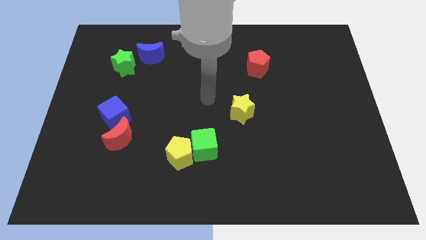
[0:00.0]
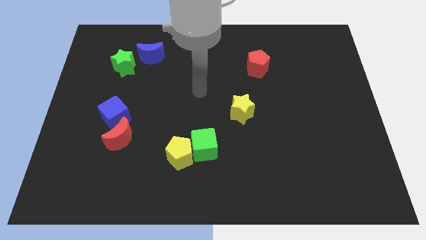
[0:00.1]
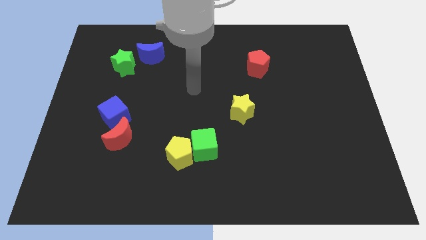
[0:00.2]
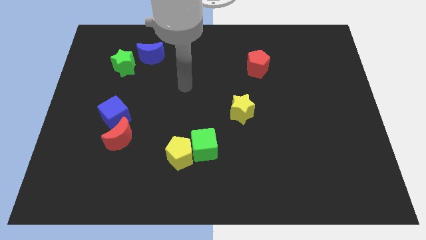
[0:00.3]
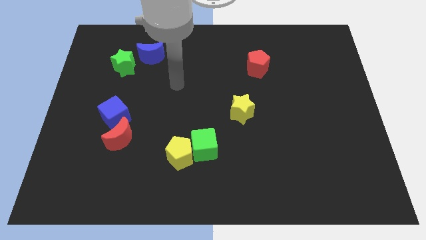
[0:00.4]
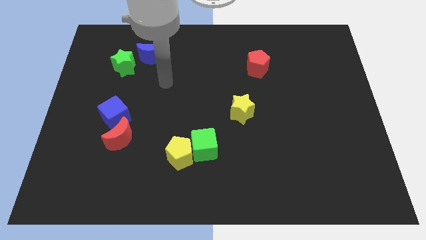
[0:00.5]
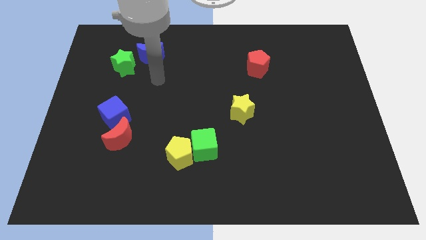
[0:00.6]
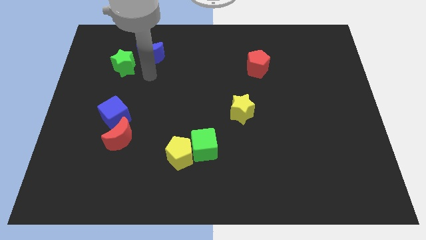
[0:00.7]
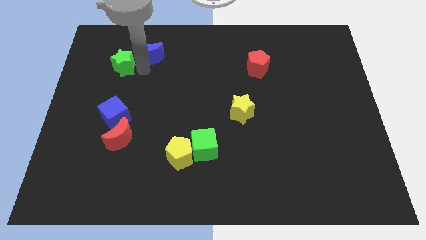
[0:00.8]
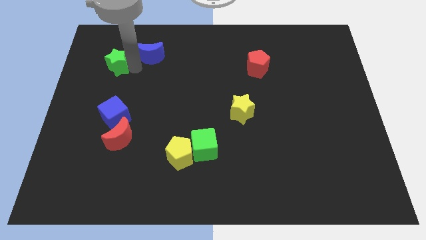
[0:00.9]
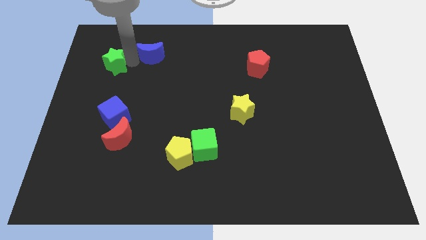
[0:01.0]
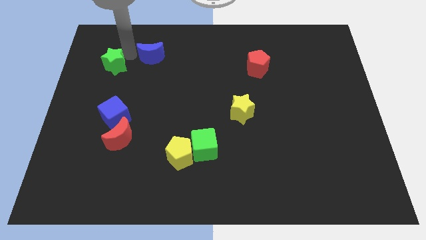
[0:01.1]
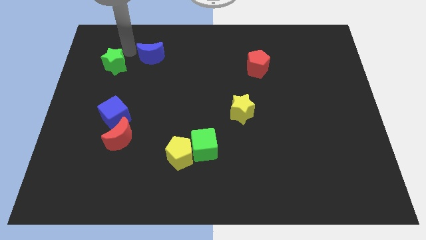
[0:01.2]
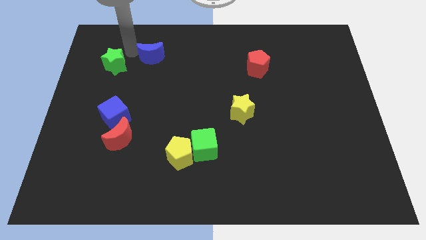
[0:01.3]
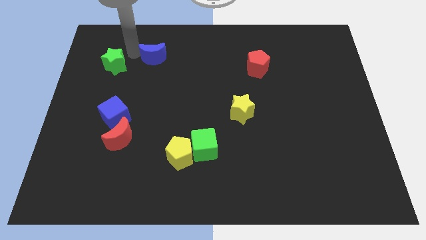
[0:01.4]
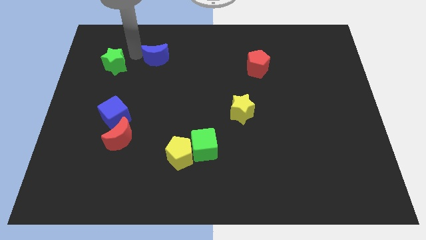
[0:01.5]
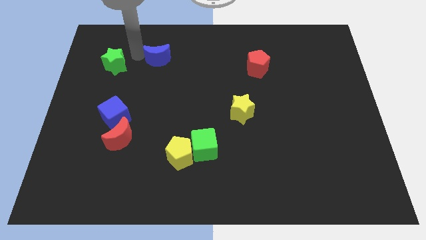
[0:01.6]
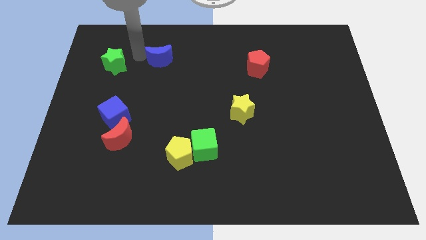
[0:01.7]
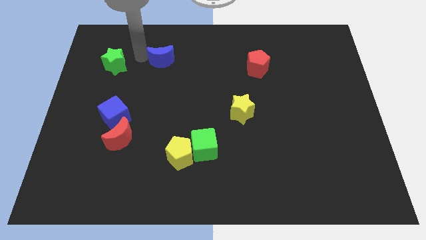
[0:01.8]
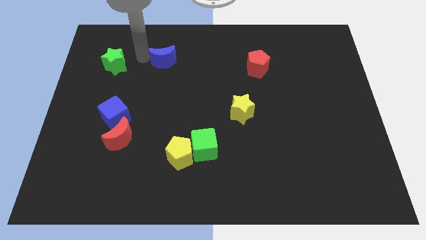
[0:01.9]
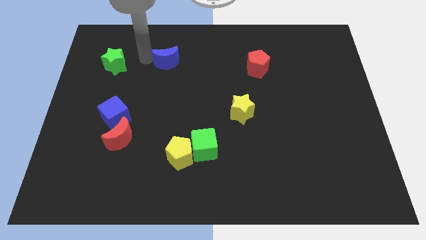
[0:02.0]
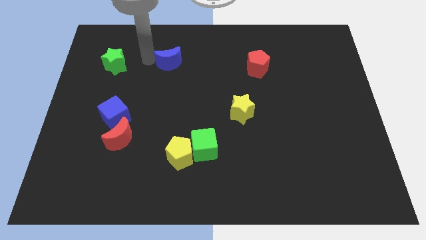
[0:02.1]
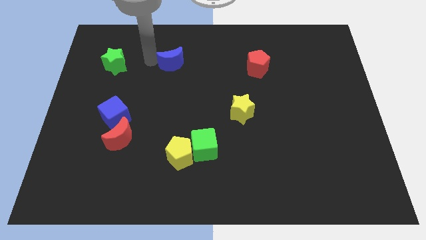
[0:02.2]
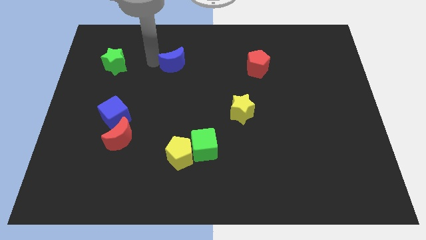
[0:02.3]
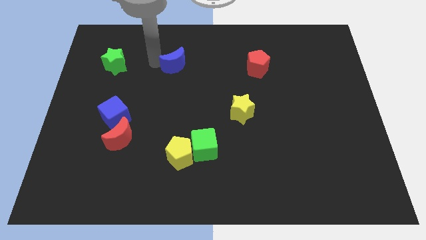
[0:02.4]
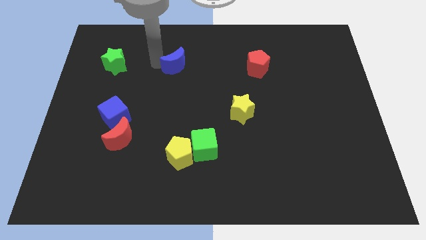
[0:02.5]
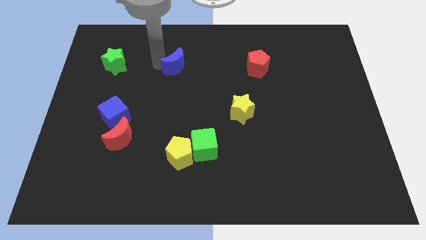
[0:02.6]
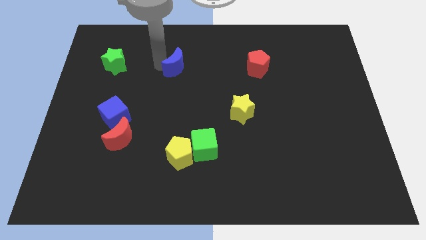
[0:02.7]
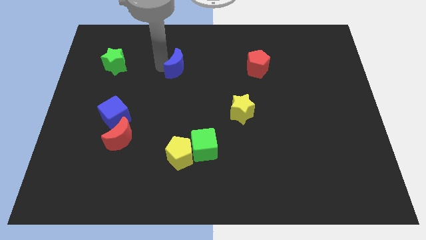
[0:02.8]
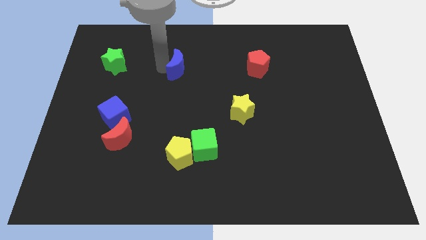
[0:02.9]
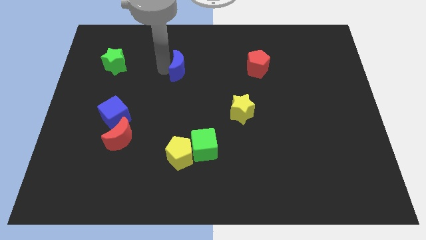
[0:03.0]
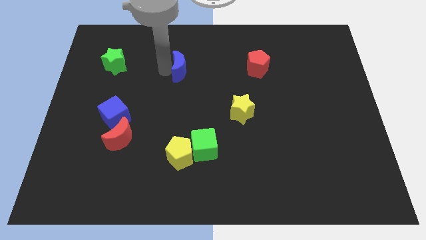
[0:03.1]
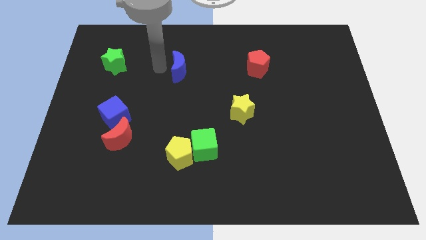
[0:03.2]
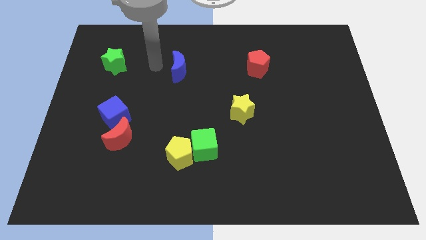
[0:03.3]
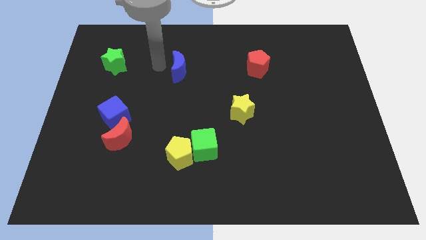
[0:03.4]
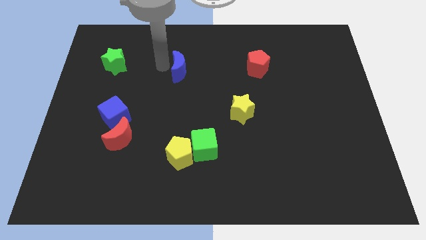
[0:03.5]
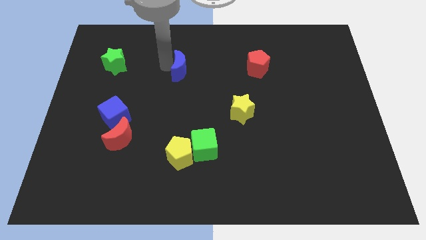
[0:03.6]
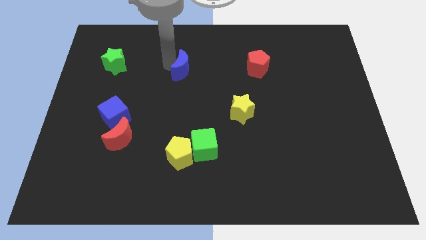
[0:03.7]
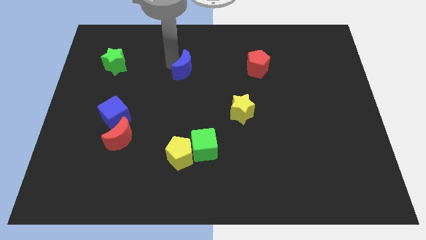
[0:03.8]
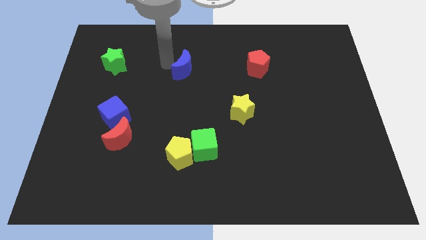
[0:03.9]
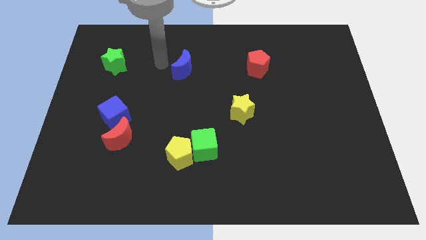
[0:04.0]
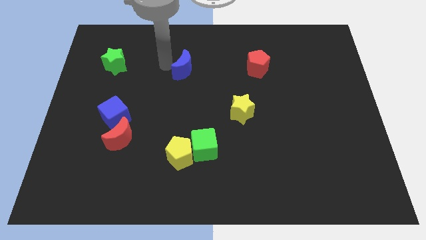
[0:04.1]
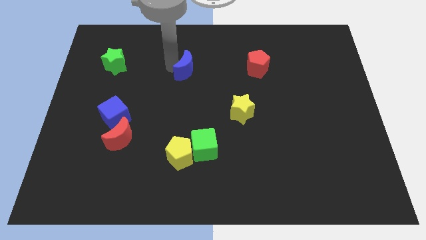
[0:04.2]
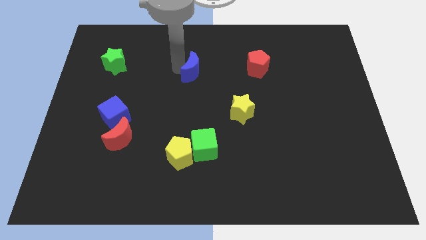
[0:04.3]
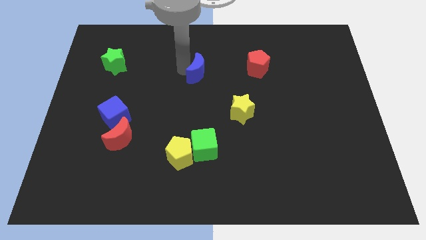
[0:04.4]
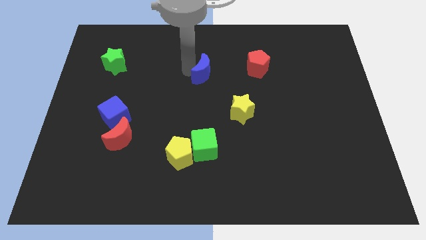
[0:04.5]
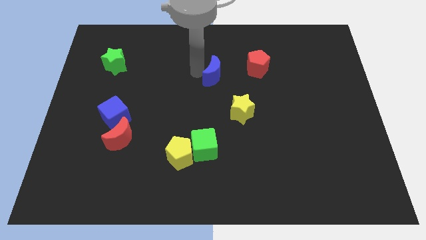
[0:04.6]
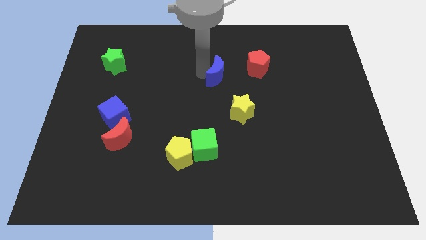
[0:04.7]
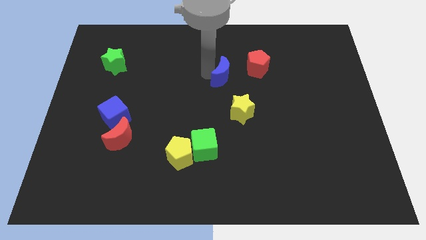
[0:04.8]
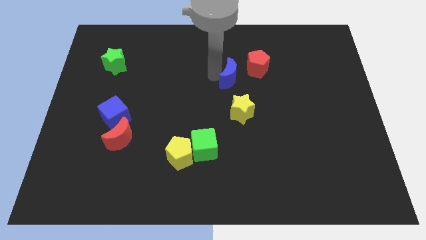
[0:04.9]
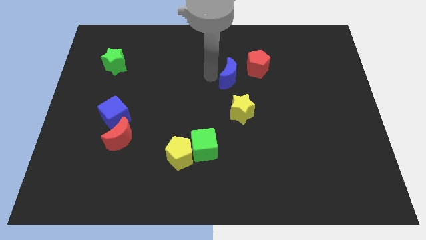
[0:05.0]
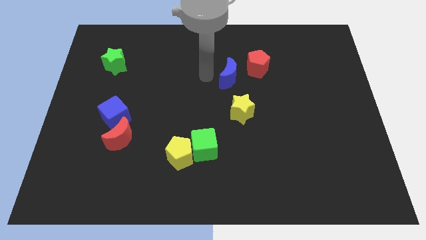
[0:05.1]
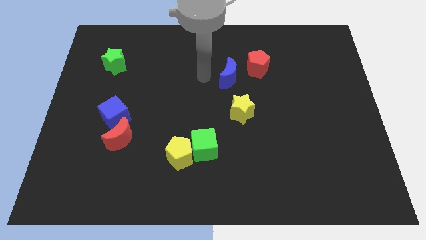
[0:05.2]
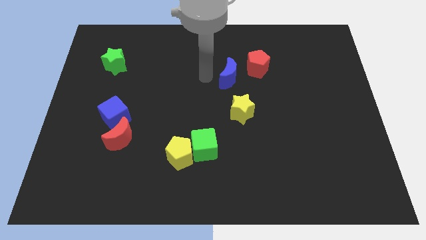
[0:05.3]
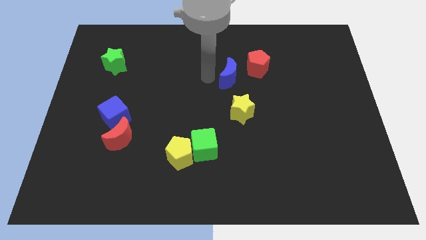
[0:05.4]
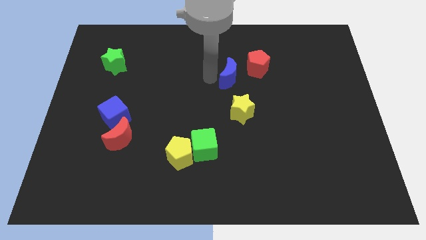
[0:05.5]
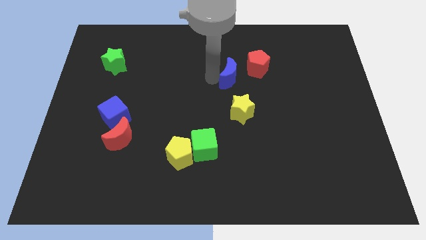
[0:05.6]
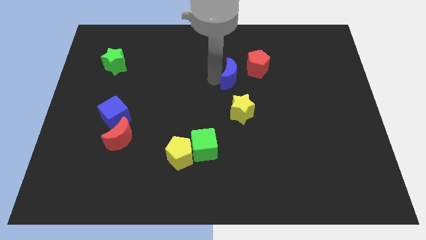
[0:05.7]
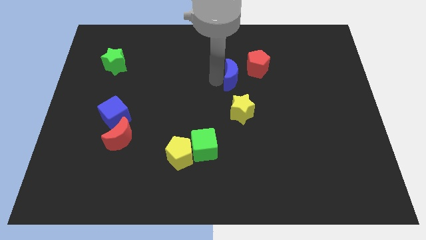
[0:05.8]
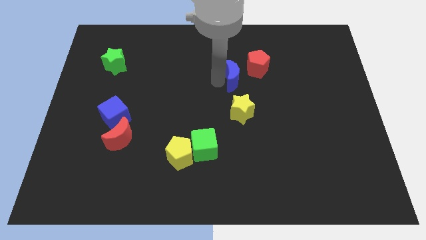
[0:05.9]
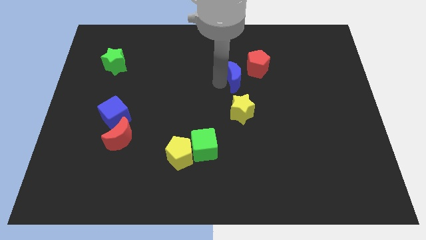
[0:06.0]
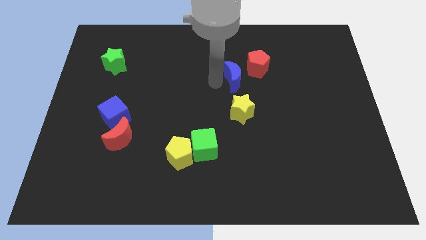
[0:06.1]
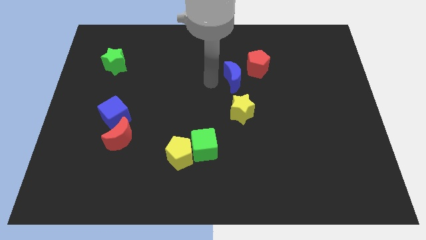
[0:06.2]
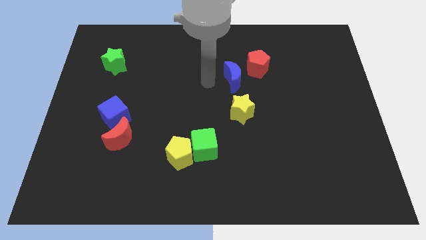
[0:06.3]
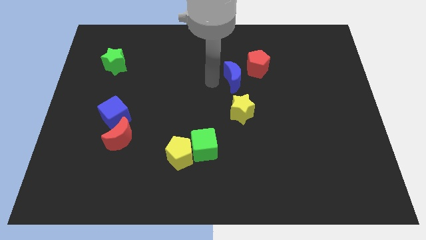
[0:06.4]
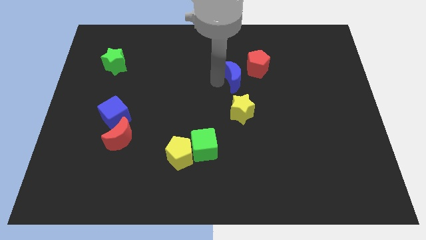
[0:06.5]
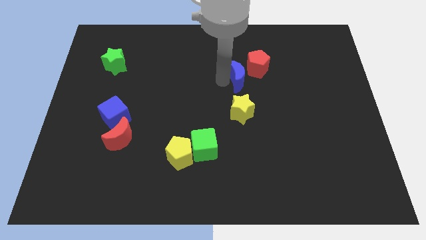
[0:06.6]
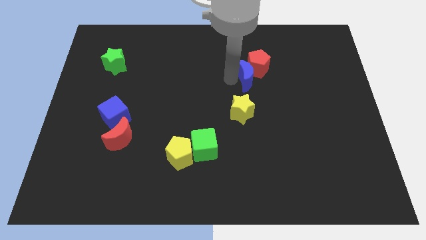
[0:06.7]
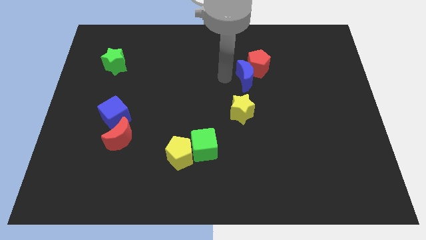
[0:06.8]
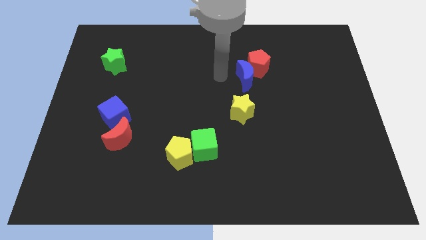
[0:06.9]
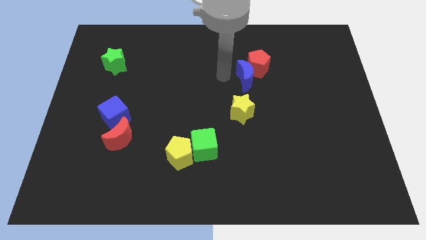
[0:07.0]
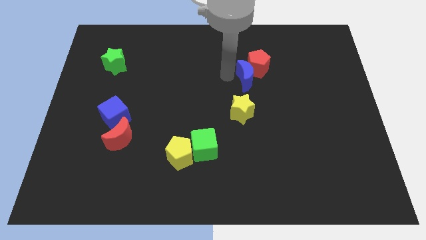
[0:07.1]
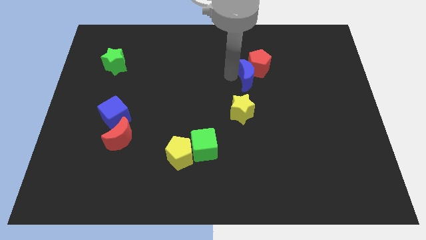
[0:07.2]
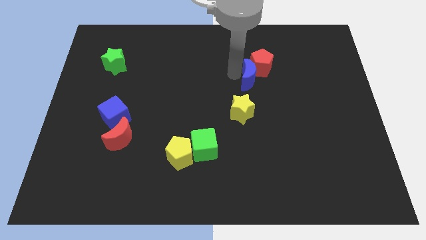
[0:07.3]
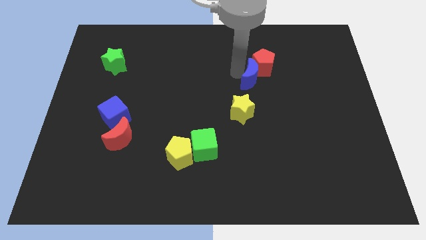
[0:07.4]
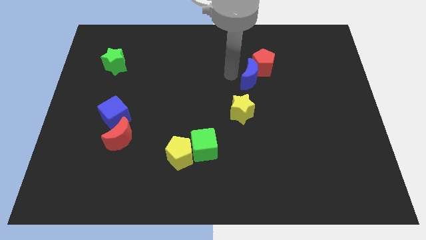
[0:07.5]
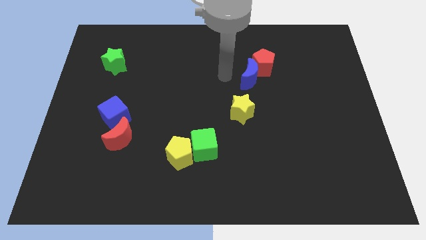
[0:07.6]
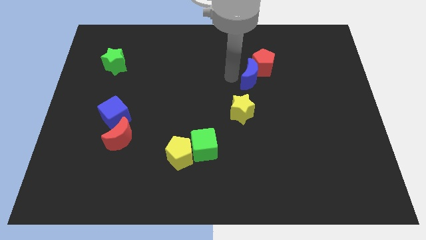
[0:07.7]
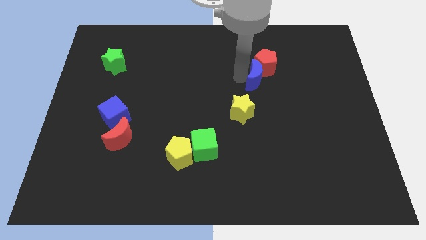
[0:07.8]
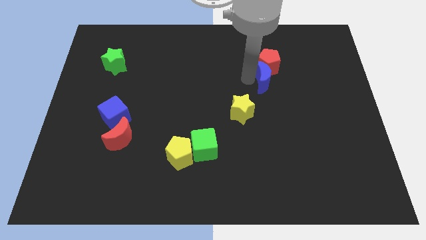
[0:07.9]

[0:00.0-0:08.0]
move the blue moon to the bottom right side of the red pentagon
